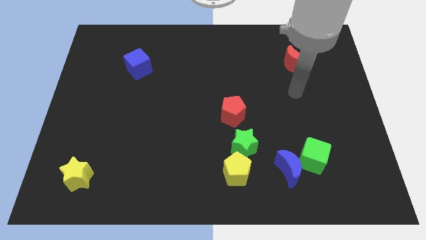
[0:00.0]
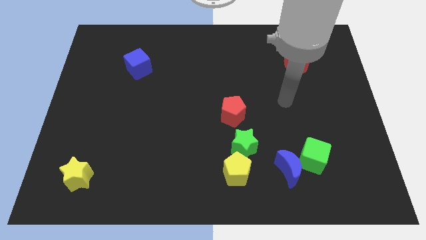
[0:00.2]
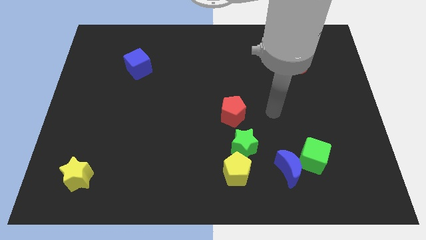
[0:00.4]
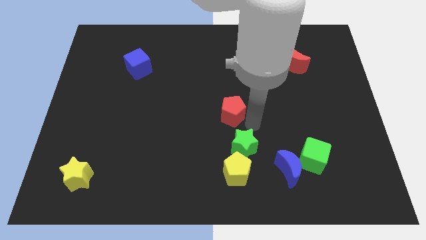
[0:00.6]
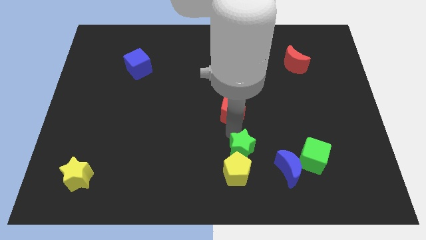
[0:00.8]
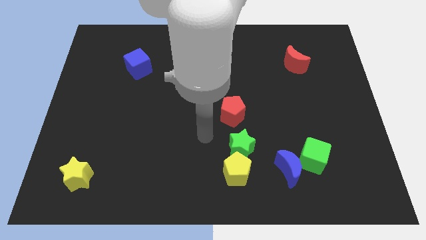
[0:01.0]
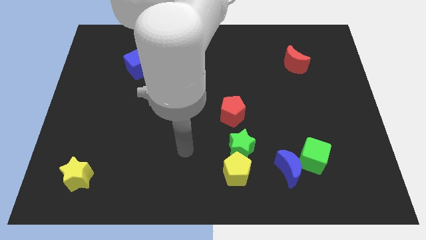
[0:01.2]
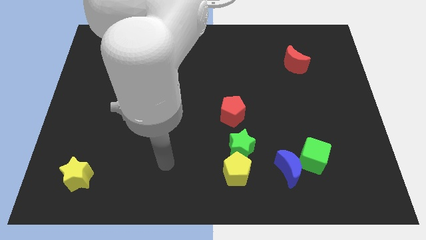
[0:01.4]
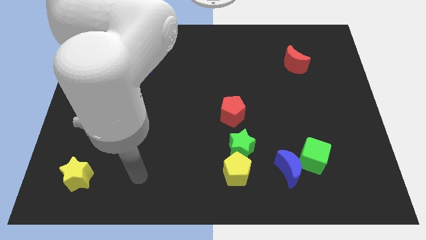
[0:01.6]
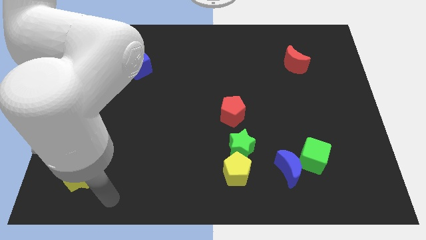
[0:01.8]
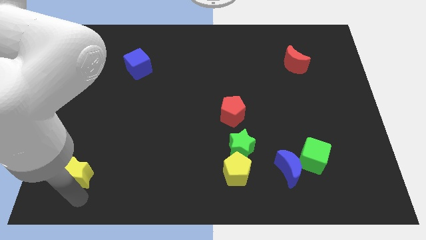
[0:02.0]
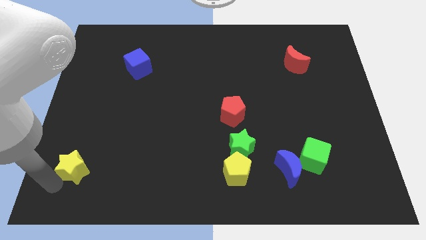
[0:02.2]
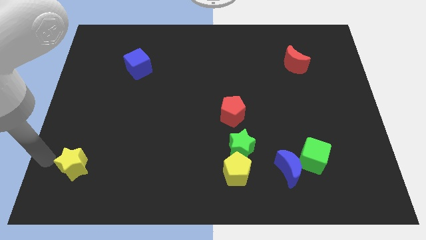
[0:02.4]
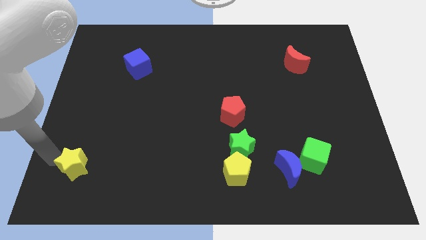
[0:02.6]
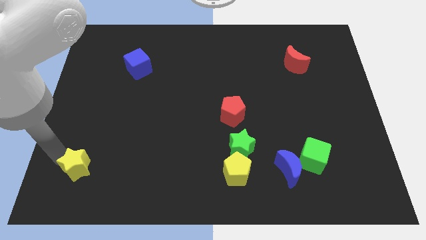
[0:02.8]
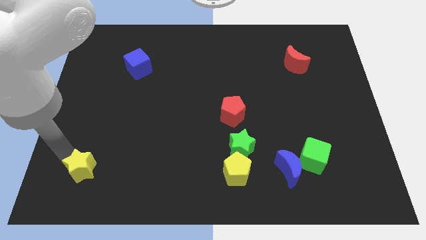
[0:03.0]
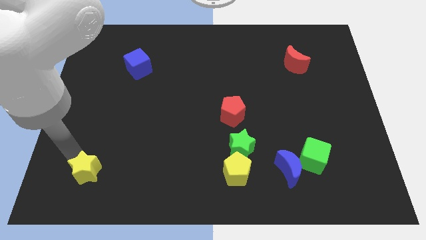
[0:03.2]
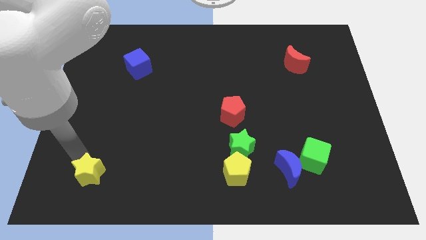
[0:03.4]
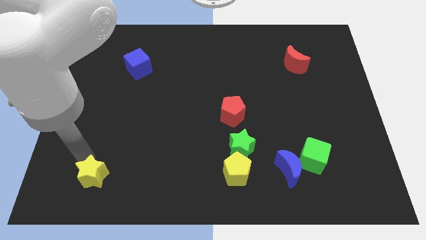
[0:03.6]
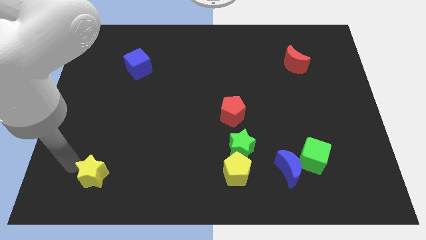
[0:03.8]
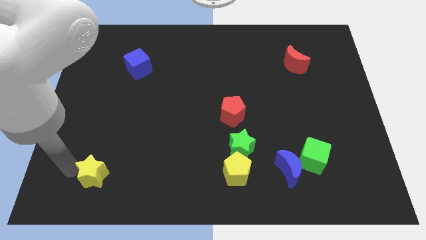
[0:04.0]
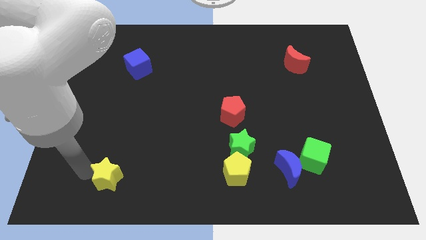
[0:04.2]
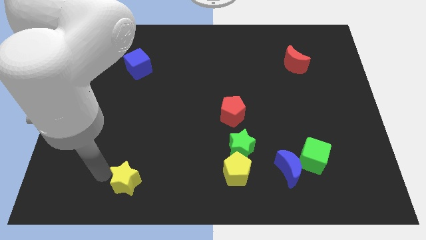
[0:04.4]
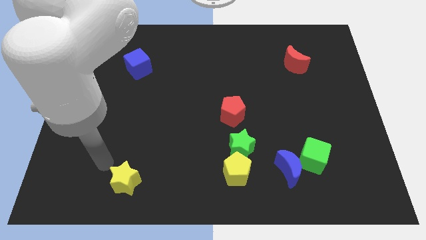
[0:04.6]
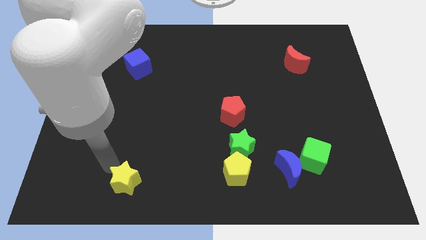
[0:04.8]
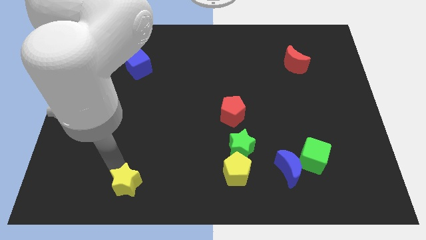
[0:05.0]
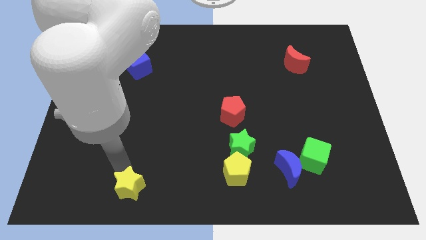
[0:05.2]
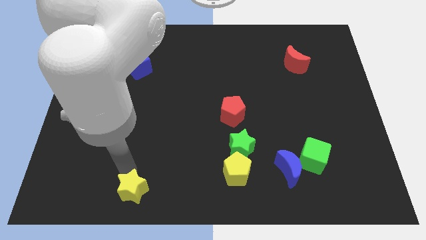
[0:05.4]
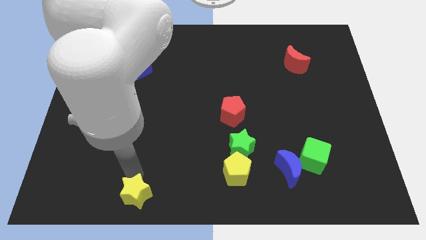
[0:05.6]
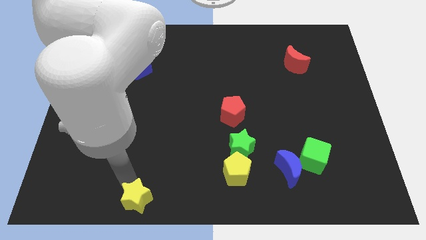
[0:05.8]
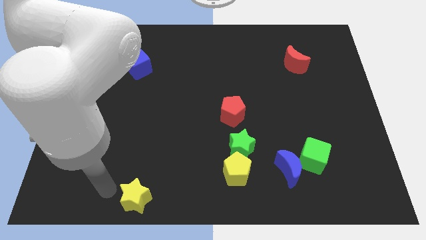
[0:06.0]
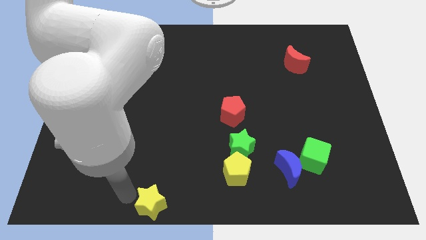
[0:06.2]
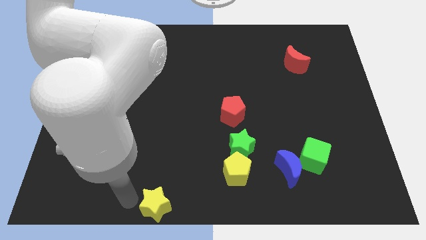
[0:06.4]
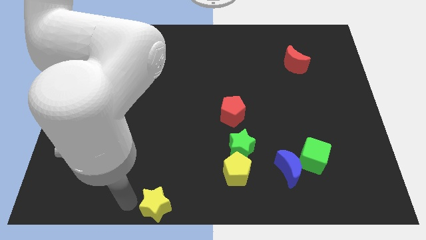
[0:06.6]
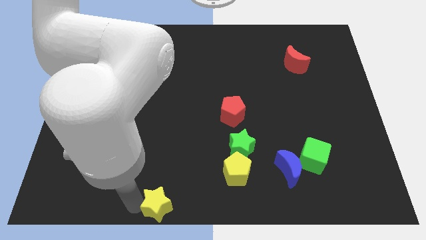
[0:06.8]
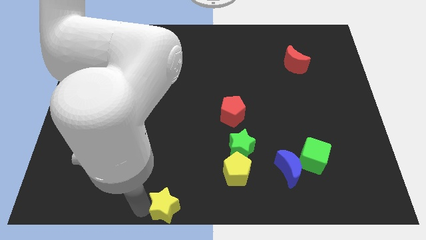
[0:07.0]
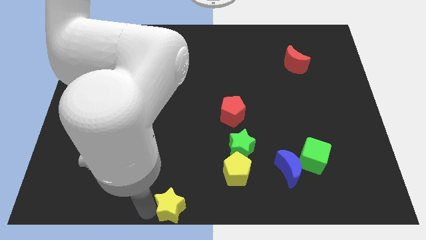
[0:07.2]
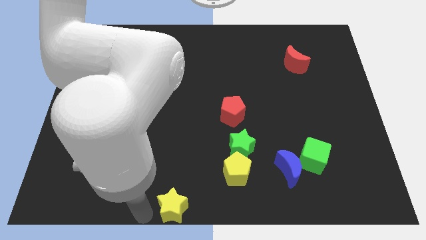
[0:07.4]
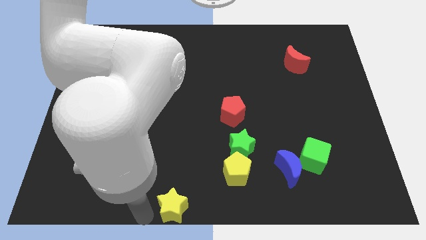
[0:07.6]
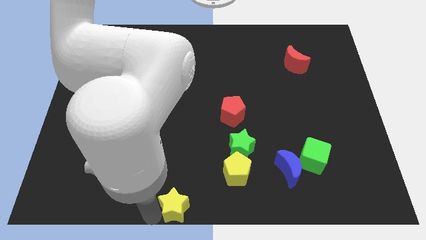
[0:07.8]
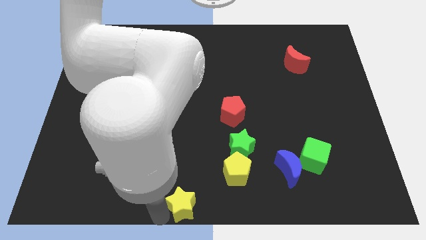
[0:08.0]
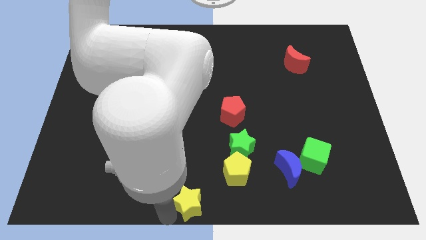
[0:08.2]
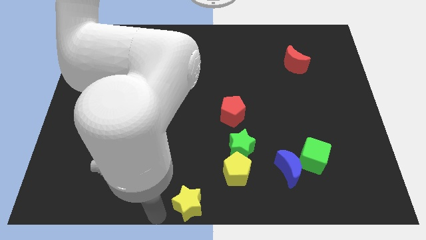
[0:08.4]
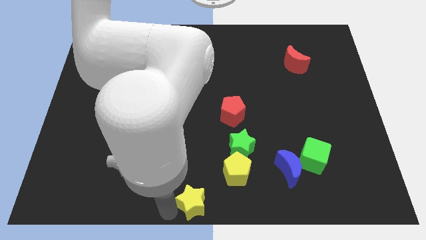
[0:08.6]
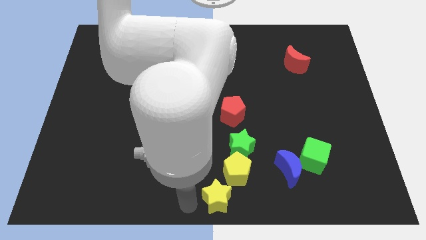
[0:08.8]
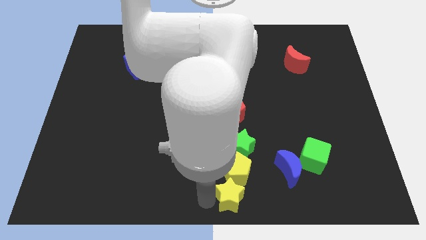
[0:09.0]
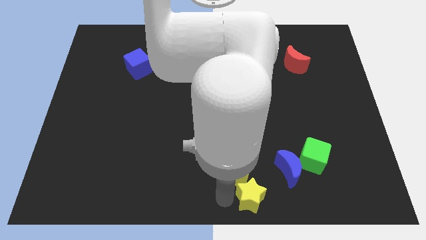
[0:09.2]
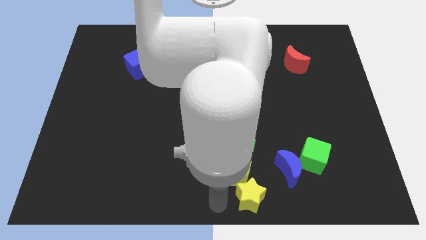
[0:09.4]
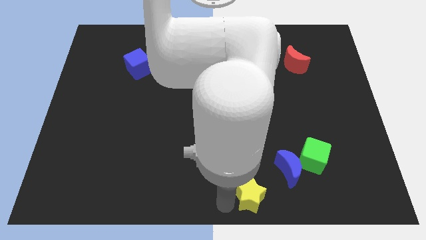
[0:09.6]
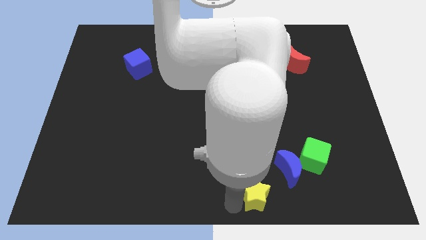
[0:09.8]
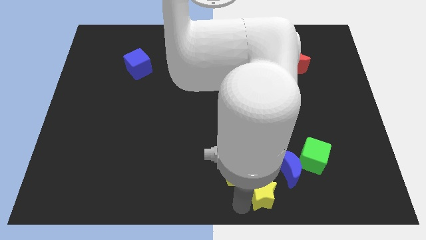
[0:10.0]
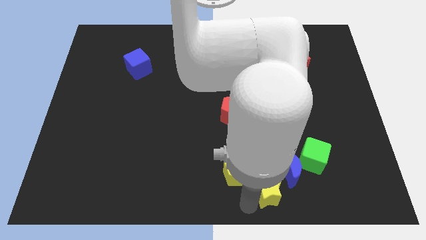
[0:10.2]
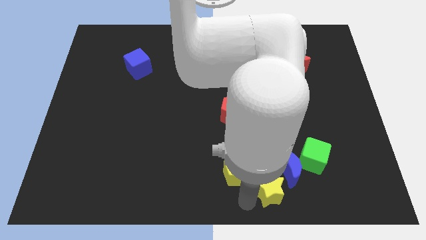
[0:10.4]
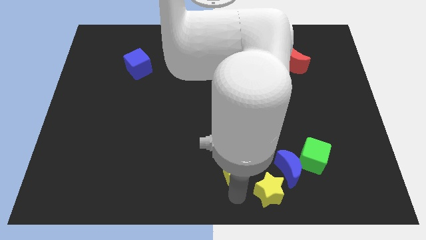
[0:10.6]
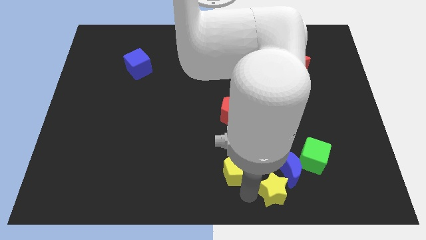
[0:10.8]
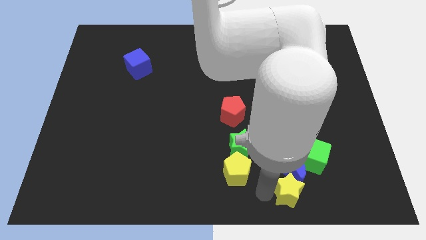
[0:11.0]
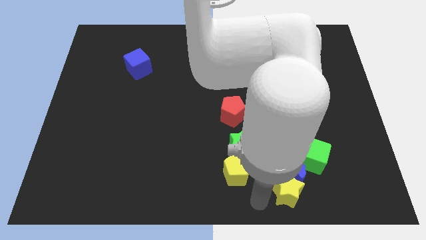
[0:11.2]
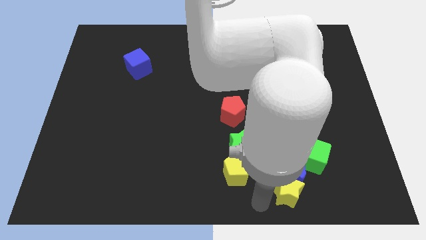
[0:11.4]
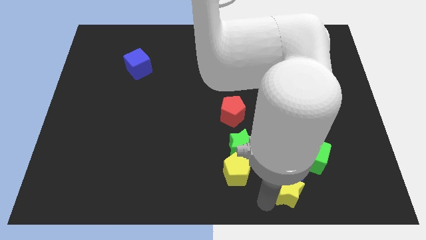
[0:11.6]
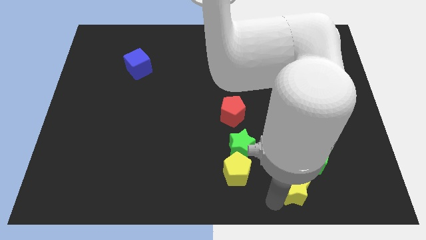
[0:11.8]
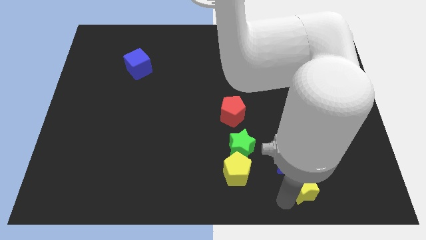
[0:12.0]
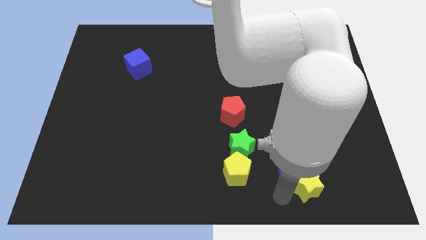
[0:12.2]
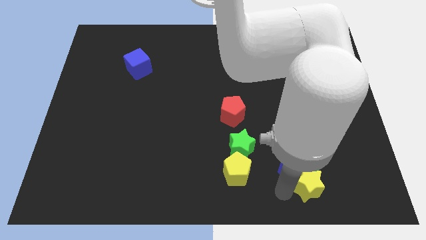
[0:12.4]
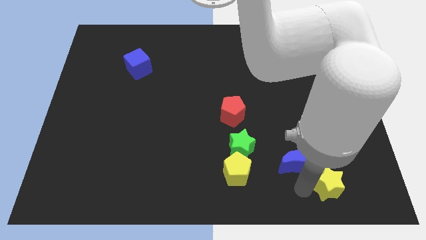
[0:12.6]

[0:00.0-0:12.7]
move the yellow star diagonally down and to the right of the green cube

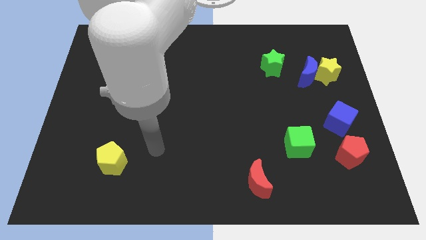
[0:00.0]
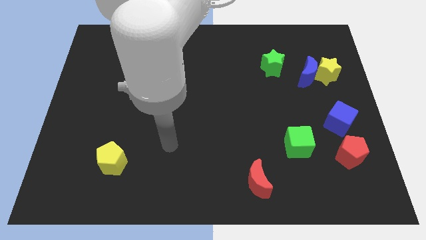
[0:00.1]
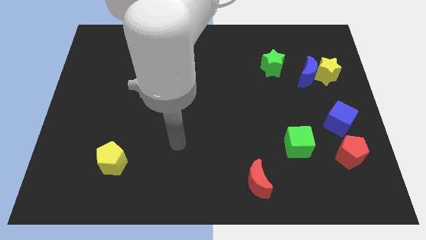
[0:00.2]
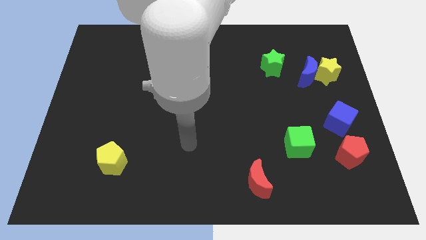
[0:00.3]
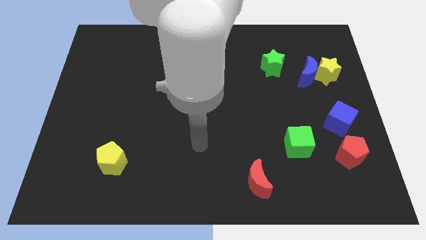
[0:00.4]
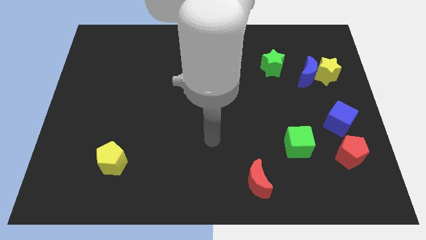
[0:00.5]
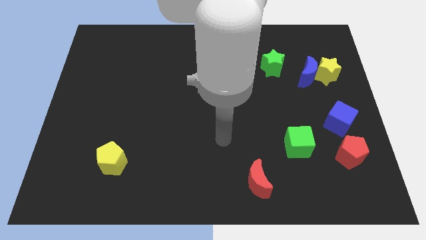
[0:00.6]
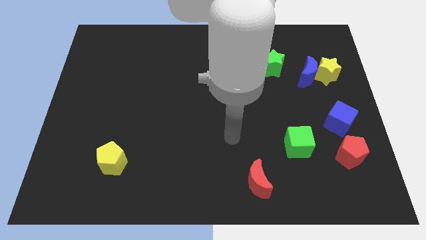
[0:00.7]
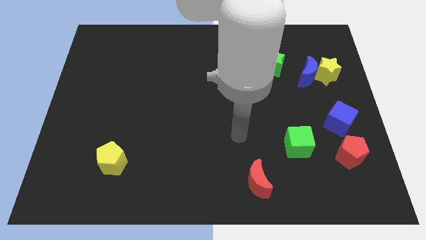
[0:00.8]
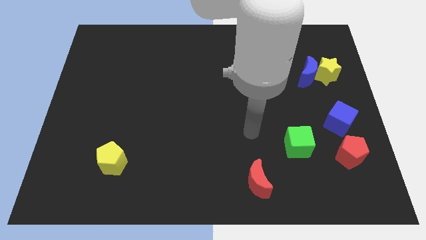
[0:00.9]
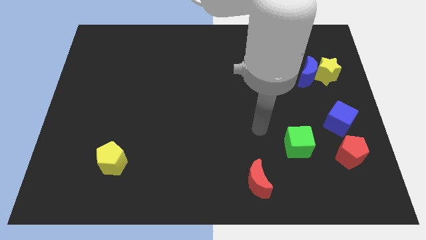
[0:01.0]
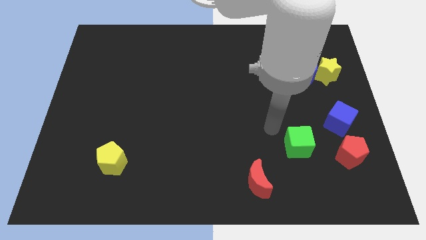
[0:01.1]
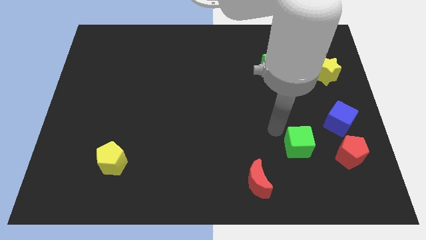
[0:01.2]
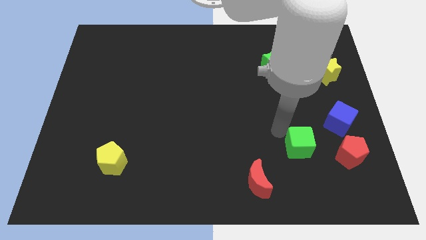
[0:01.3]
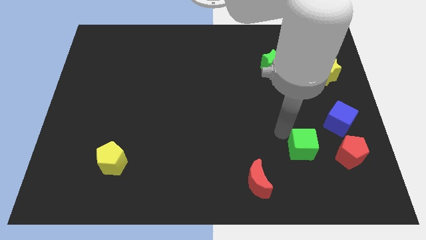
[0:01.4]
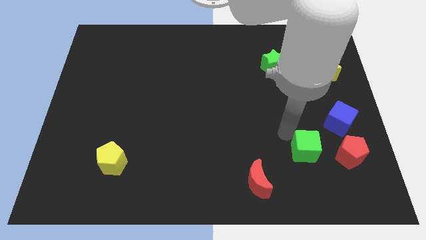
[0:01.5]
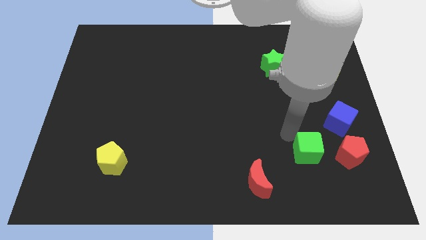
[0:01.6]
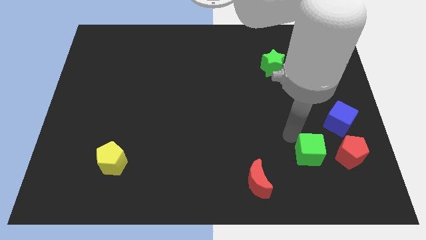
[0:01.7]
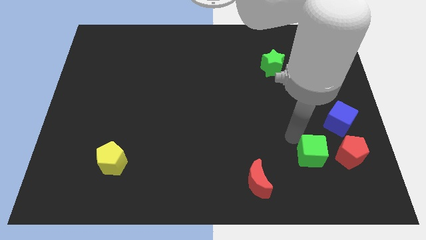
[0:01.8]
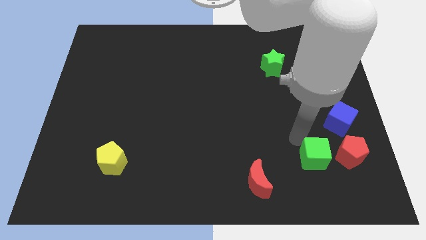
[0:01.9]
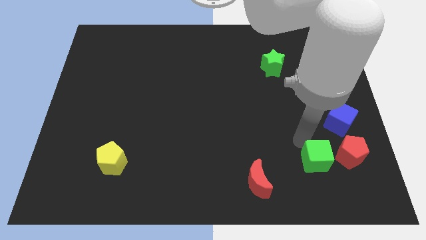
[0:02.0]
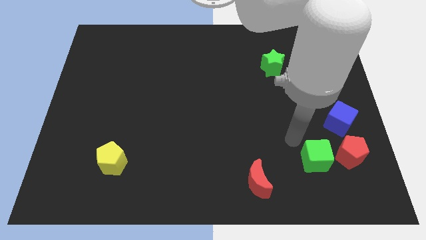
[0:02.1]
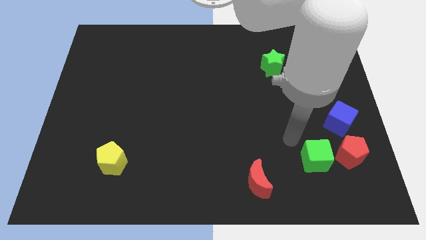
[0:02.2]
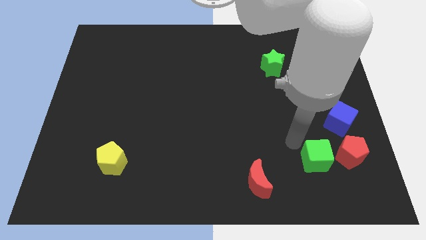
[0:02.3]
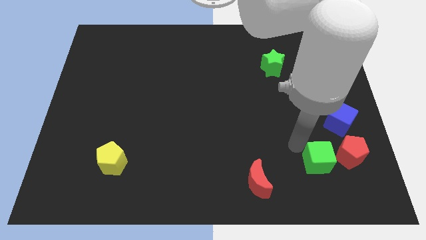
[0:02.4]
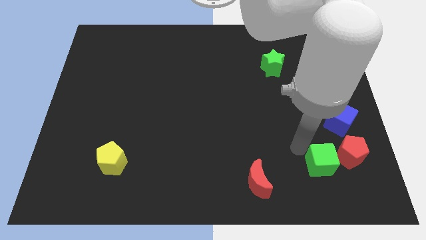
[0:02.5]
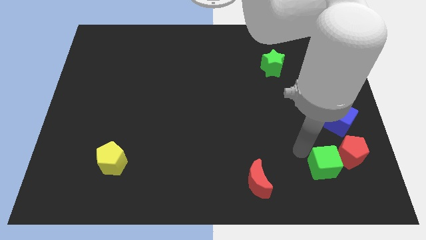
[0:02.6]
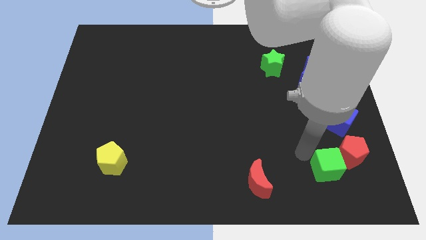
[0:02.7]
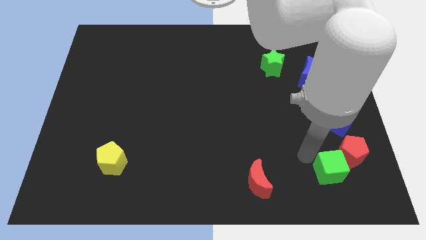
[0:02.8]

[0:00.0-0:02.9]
slide the green cube below the blue cube
